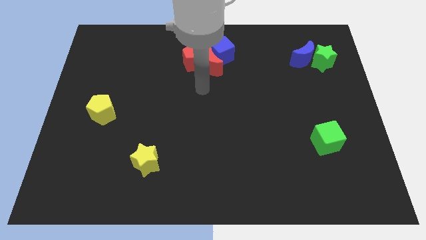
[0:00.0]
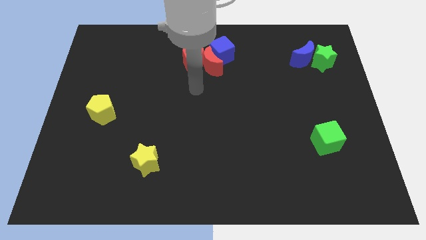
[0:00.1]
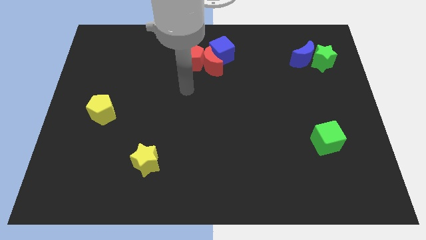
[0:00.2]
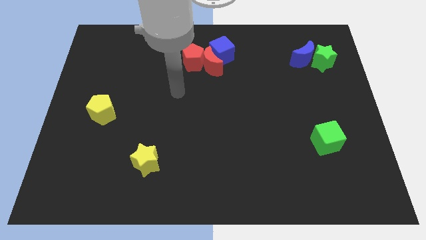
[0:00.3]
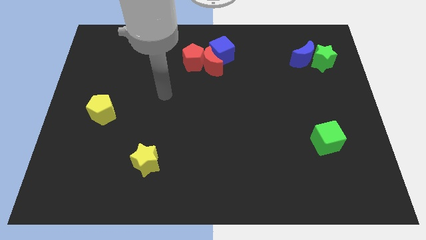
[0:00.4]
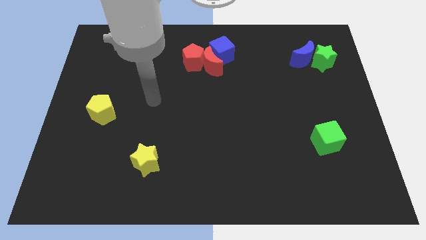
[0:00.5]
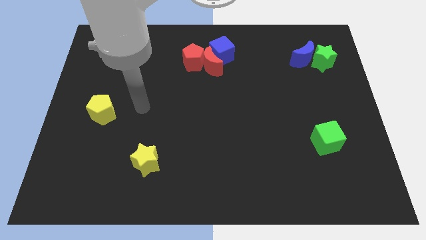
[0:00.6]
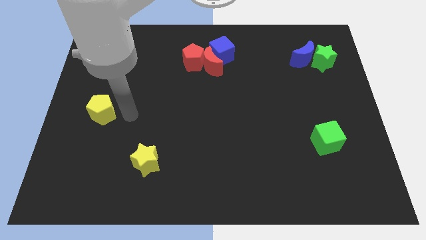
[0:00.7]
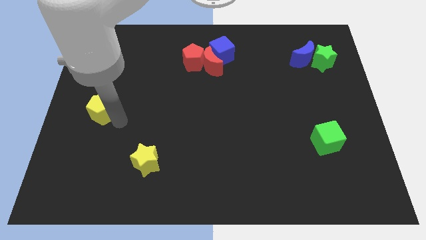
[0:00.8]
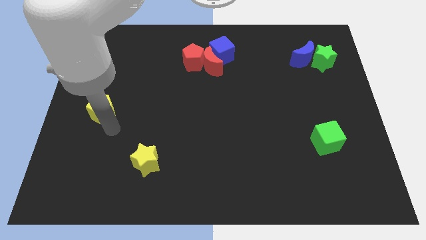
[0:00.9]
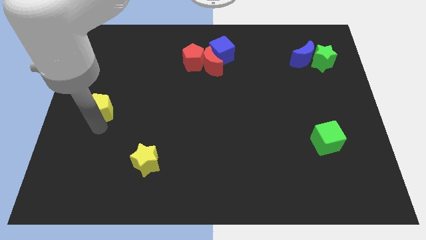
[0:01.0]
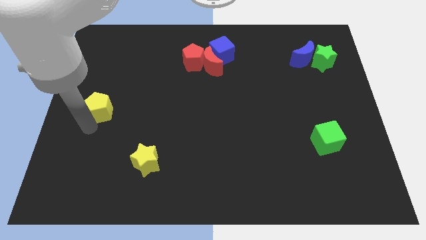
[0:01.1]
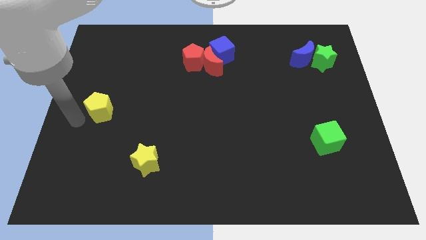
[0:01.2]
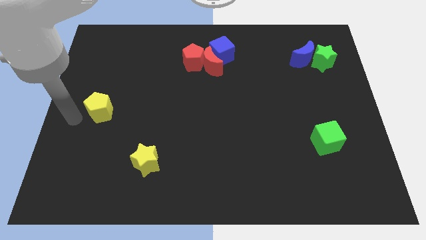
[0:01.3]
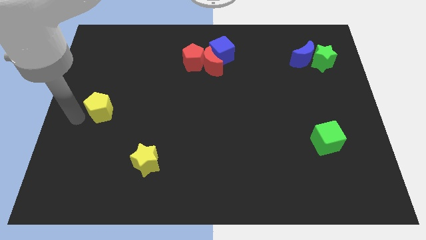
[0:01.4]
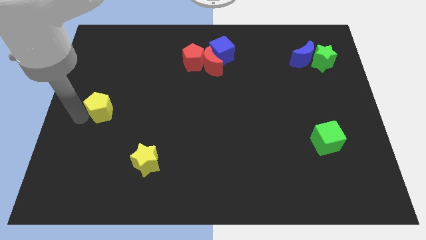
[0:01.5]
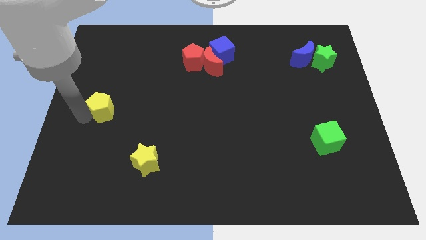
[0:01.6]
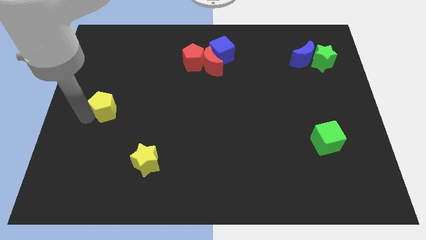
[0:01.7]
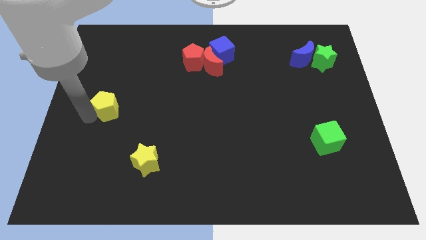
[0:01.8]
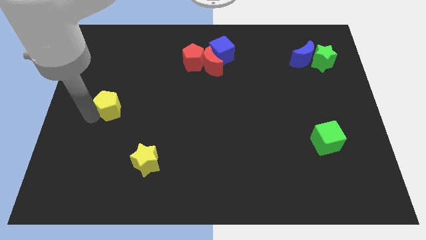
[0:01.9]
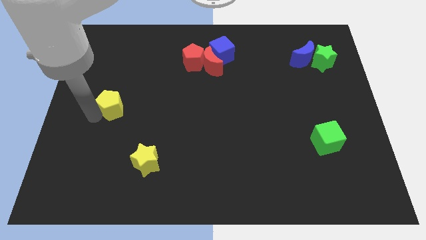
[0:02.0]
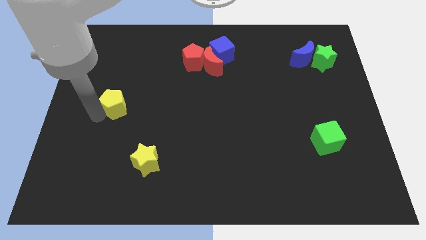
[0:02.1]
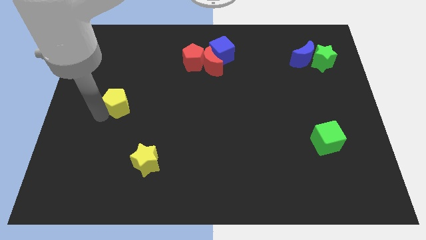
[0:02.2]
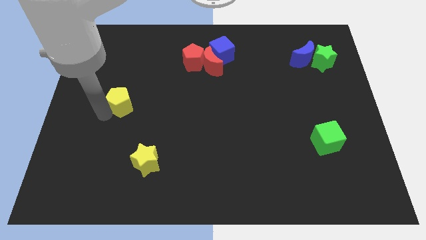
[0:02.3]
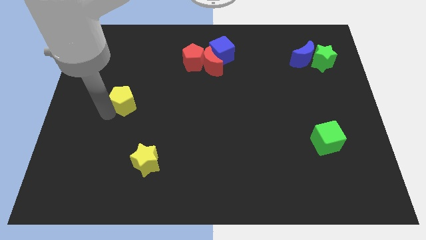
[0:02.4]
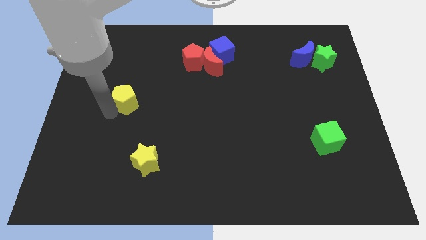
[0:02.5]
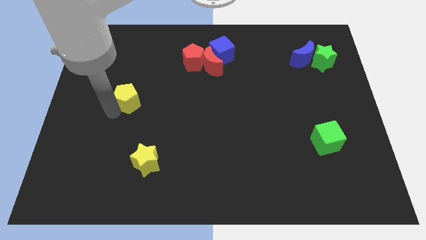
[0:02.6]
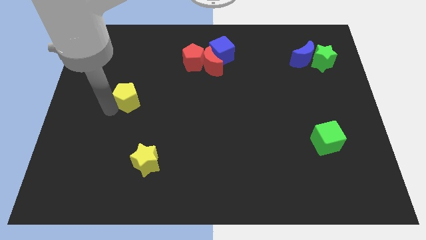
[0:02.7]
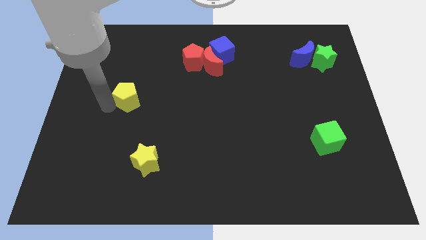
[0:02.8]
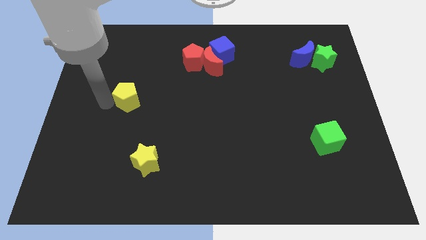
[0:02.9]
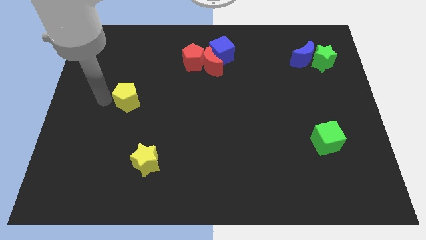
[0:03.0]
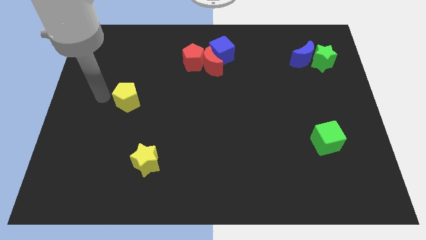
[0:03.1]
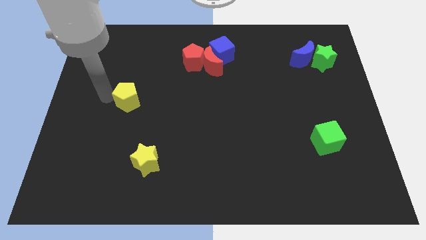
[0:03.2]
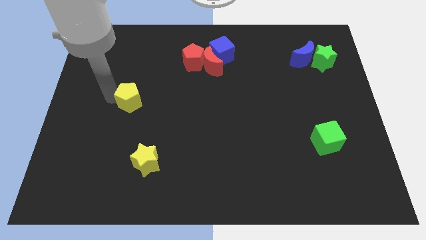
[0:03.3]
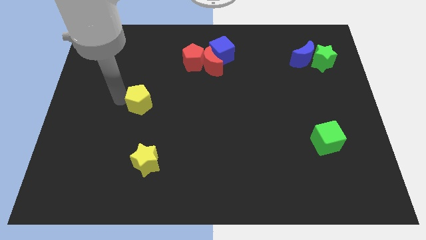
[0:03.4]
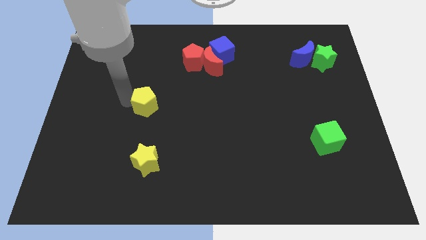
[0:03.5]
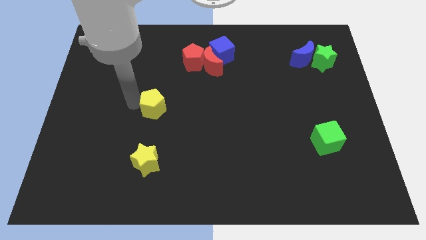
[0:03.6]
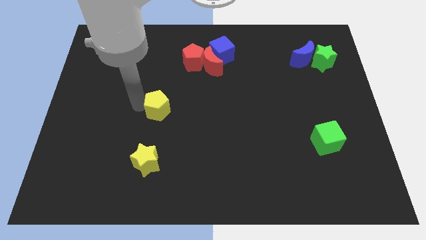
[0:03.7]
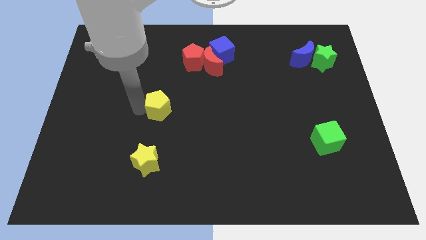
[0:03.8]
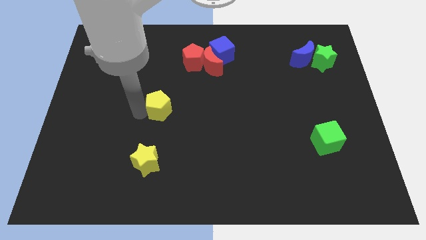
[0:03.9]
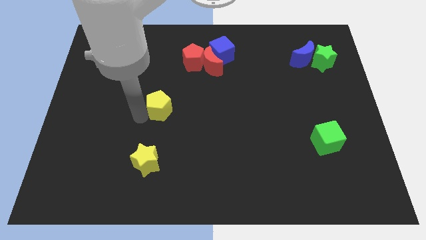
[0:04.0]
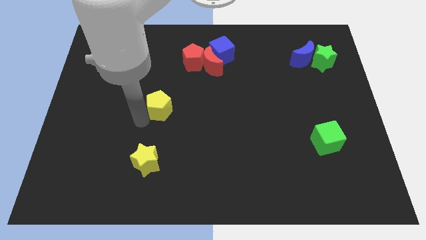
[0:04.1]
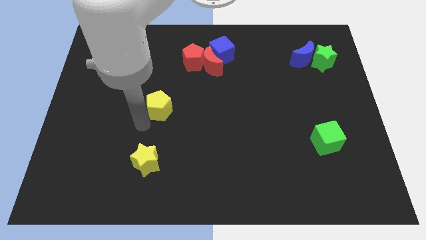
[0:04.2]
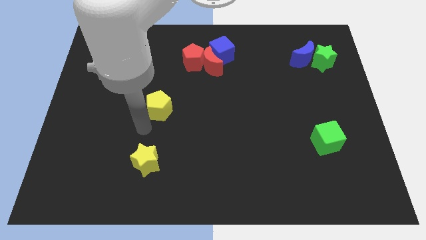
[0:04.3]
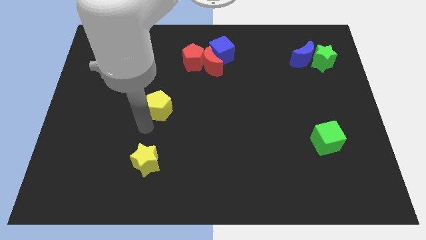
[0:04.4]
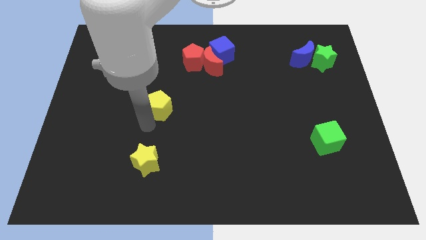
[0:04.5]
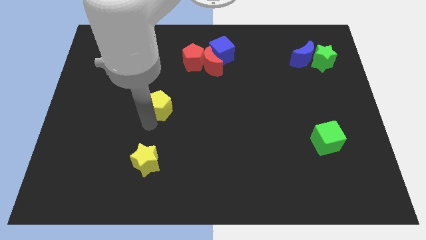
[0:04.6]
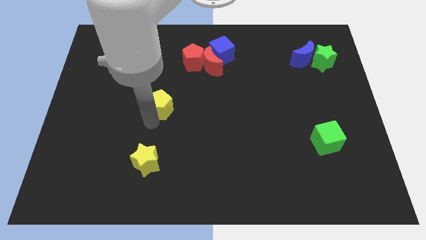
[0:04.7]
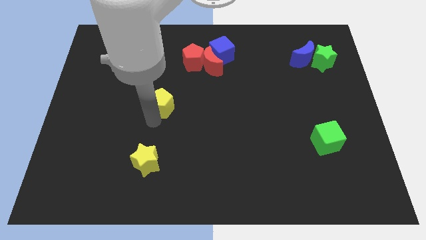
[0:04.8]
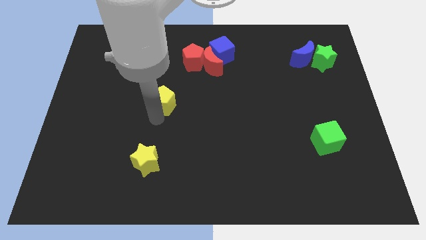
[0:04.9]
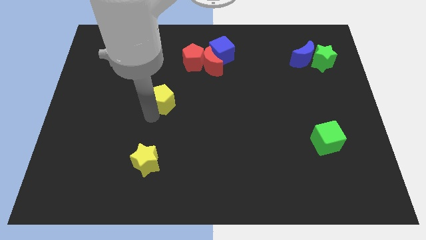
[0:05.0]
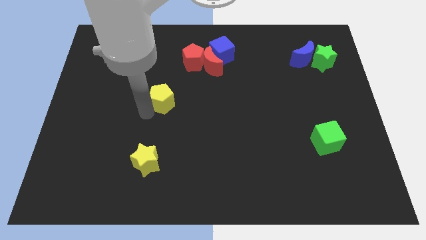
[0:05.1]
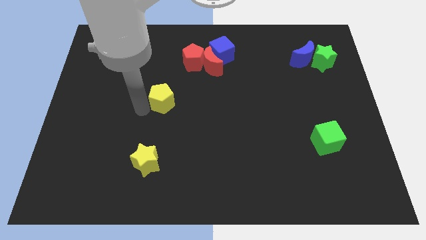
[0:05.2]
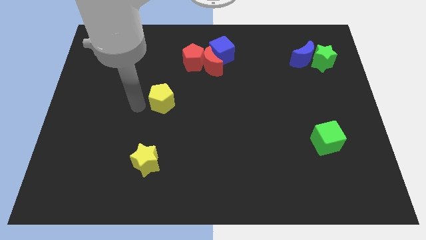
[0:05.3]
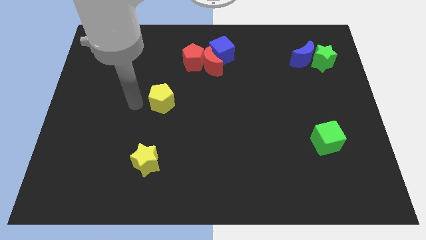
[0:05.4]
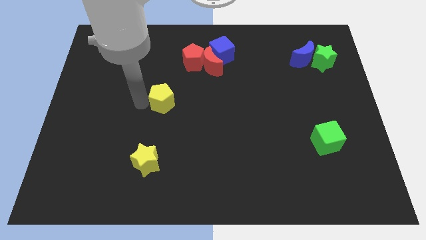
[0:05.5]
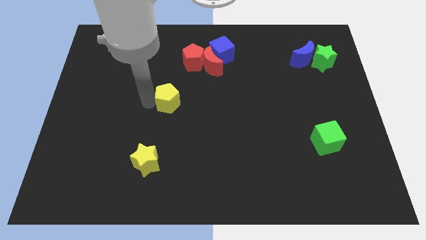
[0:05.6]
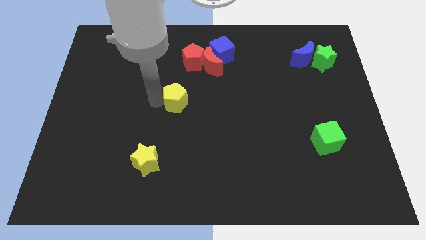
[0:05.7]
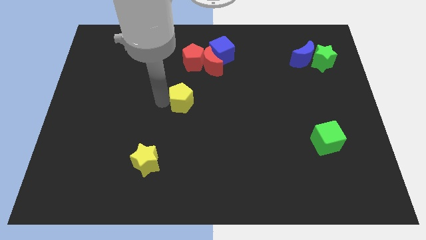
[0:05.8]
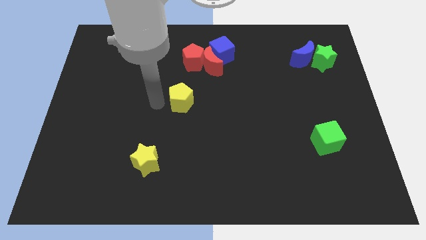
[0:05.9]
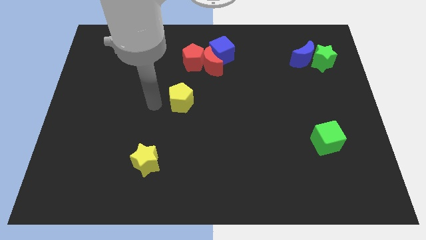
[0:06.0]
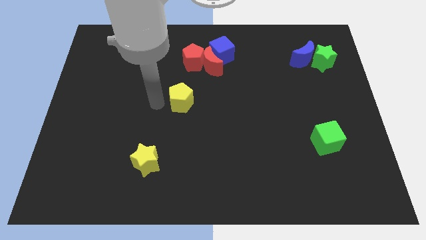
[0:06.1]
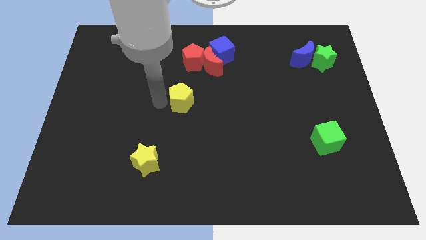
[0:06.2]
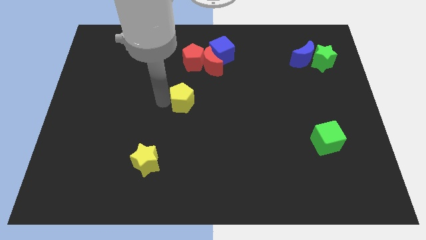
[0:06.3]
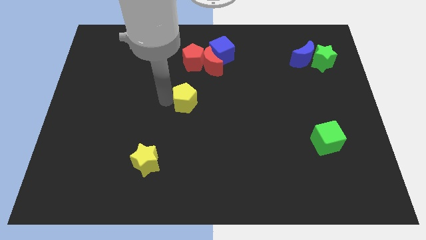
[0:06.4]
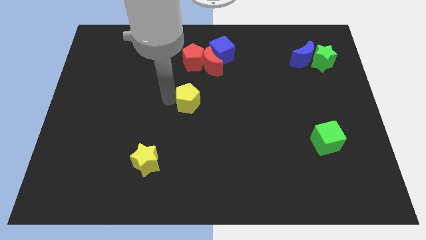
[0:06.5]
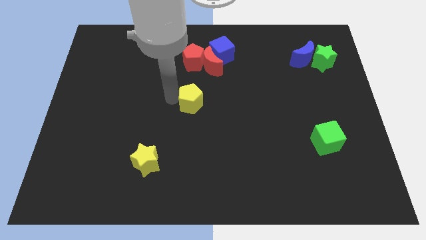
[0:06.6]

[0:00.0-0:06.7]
move the yellow pentagon to the bottom of the red moon

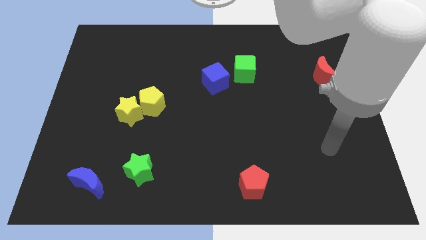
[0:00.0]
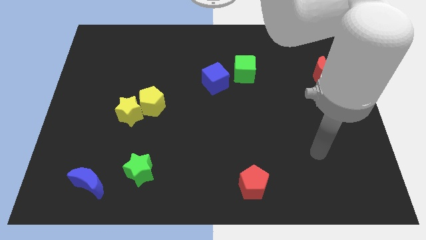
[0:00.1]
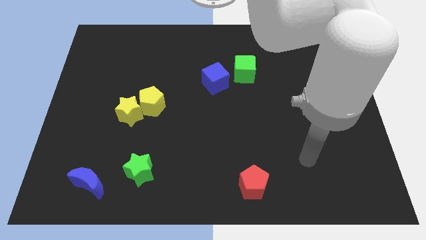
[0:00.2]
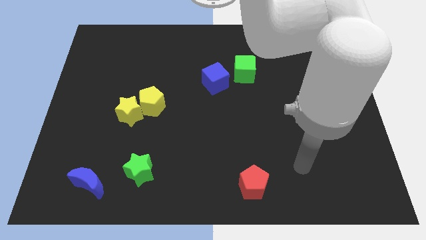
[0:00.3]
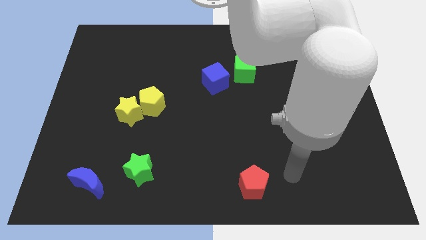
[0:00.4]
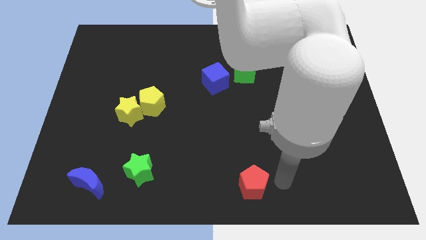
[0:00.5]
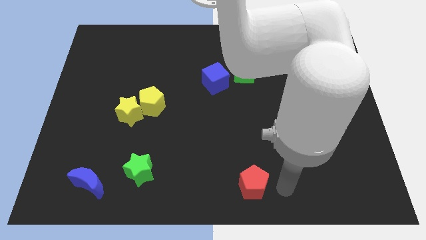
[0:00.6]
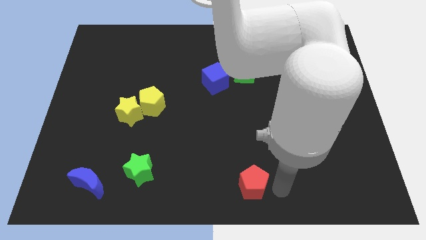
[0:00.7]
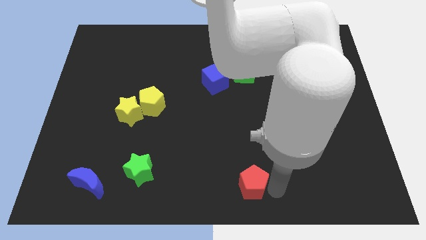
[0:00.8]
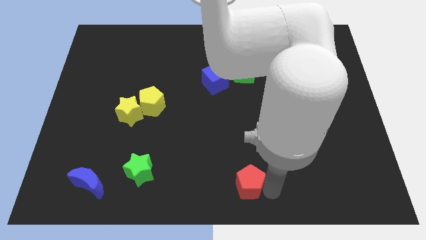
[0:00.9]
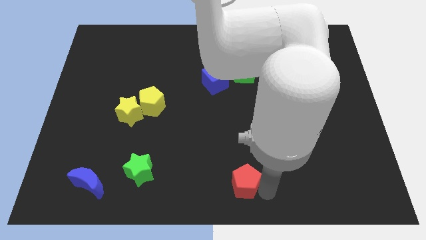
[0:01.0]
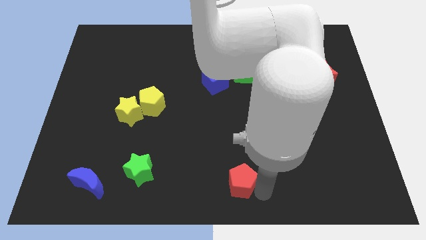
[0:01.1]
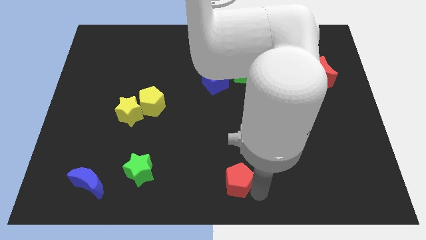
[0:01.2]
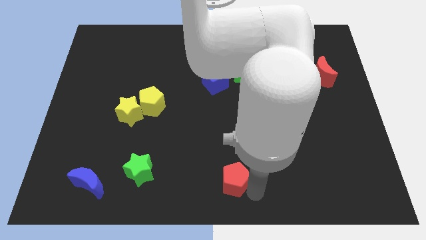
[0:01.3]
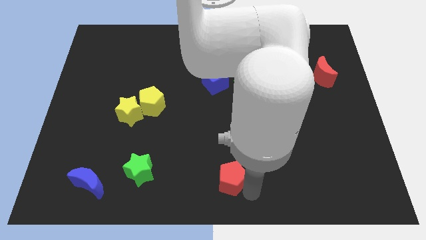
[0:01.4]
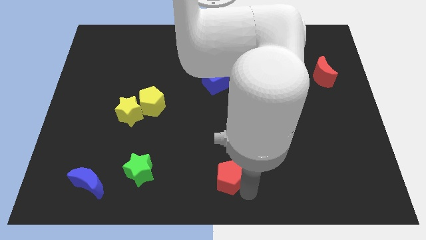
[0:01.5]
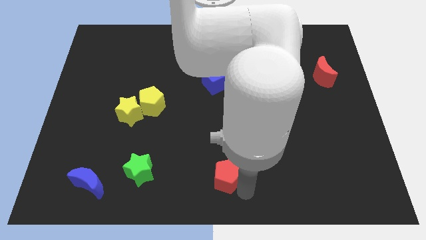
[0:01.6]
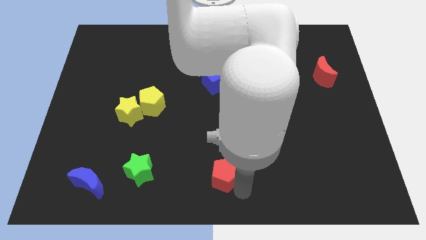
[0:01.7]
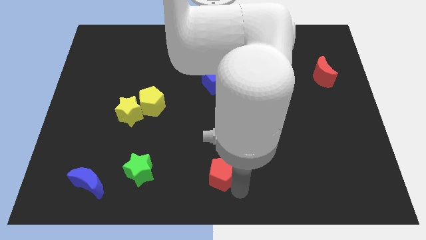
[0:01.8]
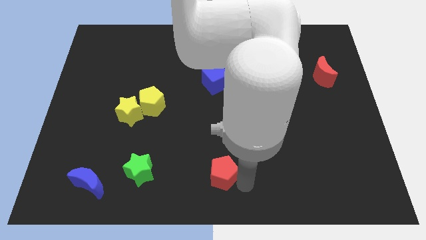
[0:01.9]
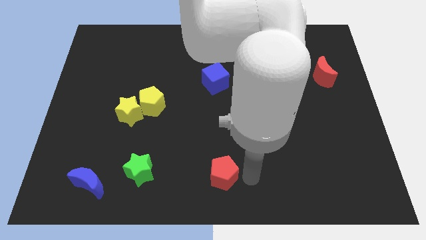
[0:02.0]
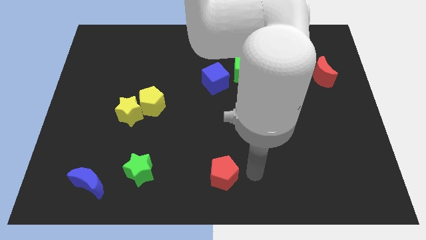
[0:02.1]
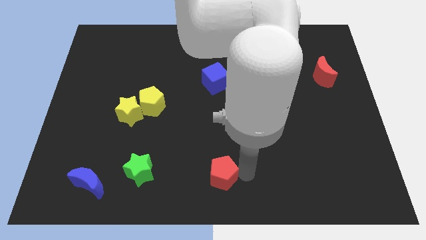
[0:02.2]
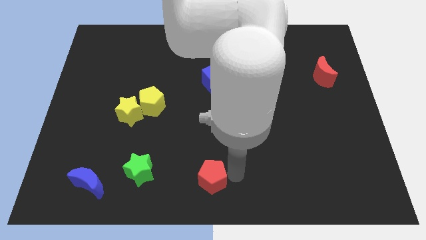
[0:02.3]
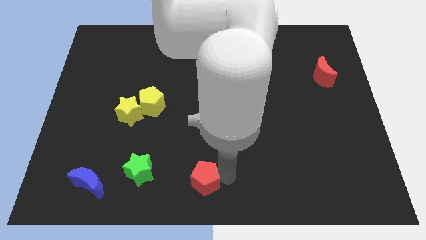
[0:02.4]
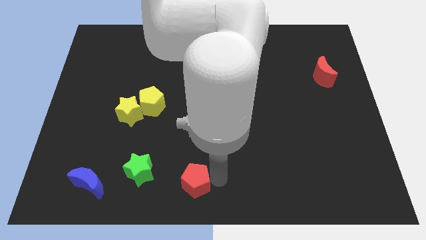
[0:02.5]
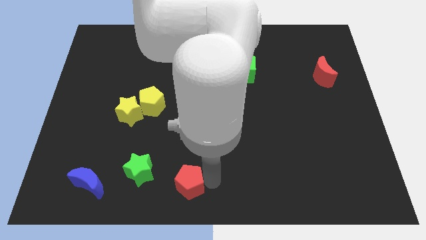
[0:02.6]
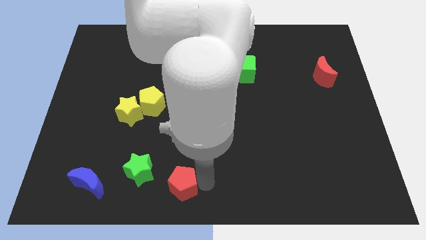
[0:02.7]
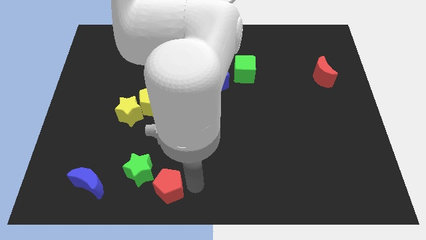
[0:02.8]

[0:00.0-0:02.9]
put the red pentagon to the right of the blue moon
